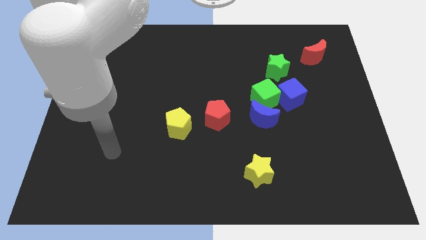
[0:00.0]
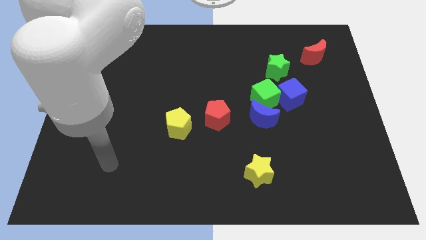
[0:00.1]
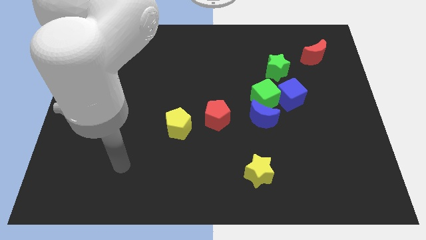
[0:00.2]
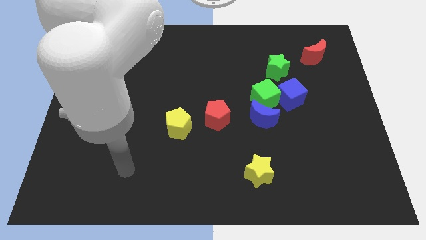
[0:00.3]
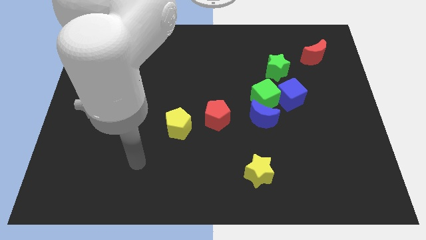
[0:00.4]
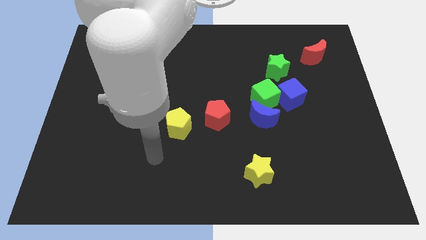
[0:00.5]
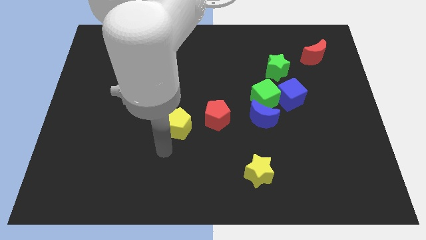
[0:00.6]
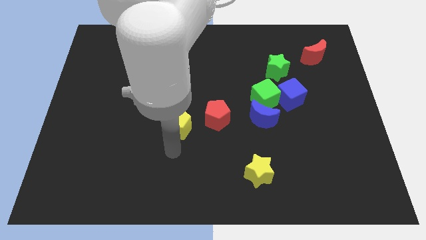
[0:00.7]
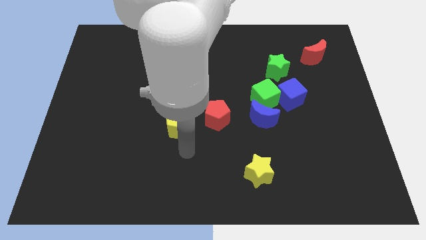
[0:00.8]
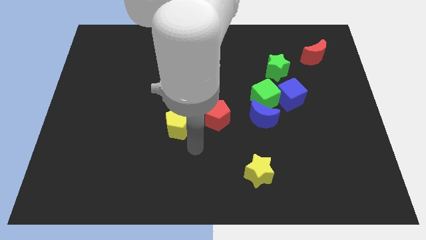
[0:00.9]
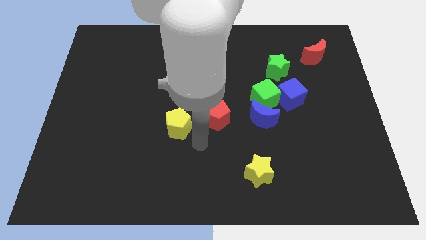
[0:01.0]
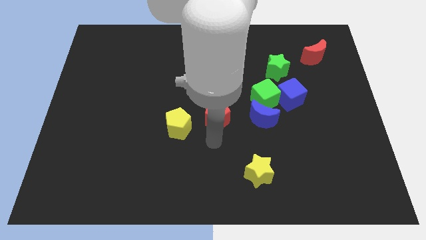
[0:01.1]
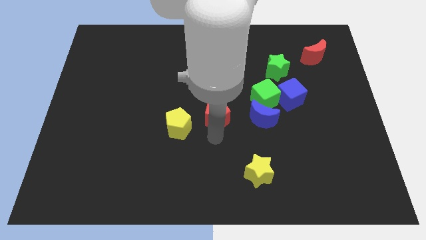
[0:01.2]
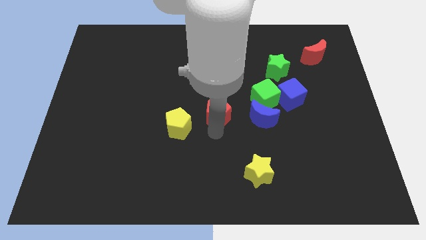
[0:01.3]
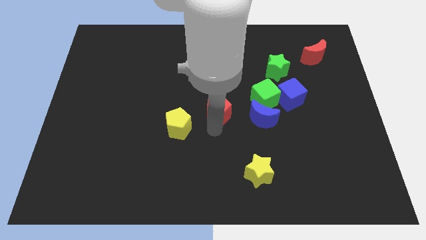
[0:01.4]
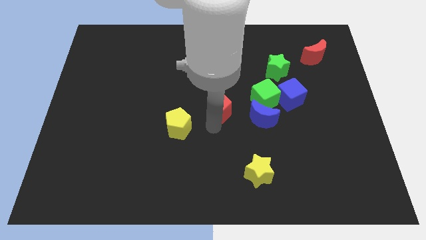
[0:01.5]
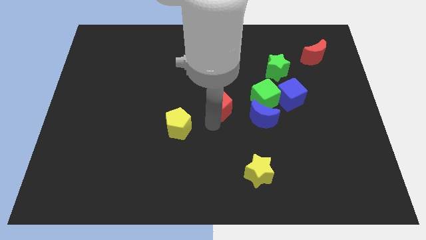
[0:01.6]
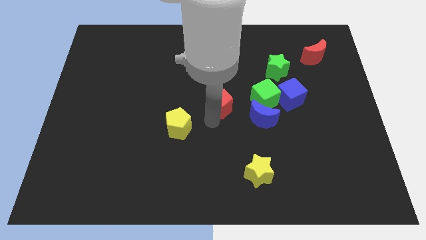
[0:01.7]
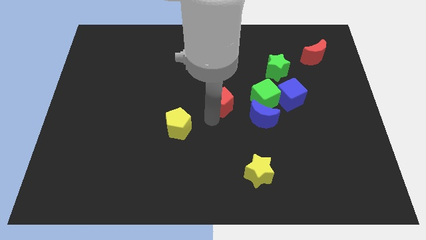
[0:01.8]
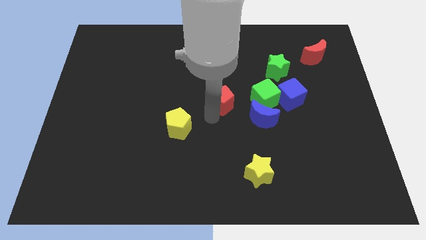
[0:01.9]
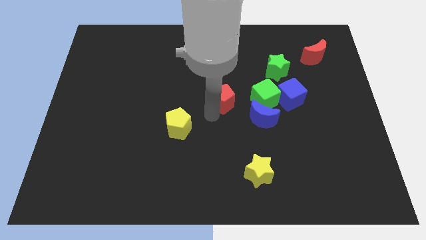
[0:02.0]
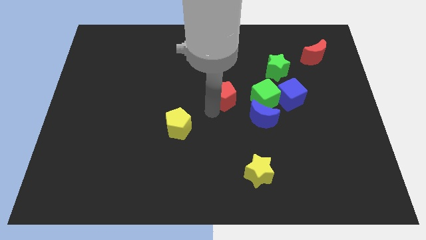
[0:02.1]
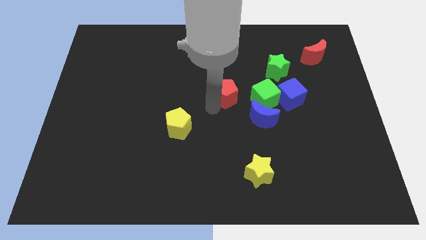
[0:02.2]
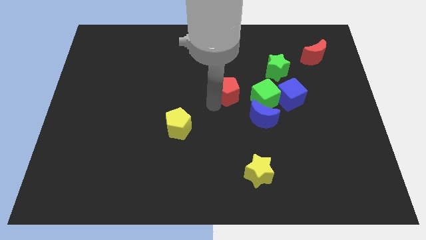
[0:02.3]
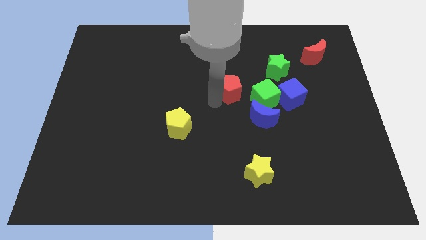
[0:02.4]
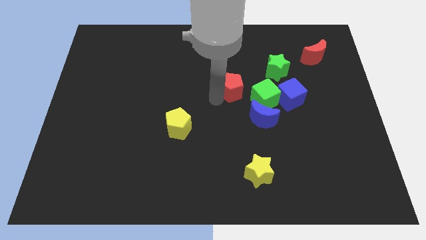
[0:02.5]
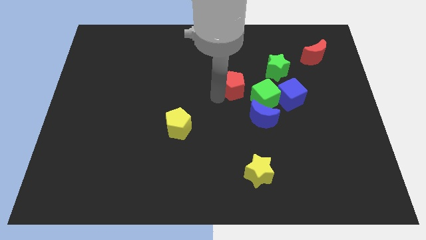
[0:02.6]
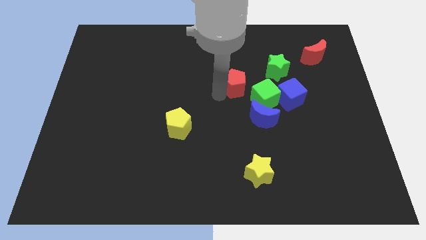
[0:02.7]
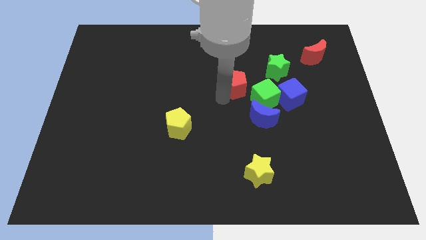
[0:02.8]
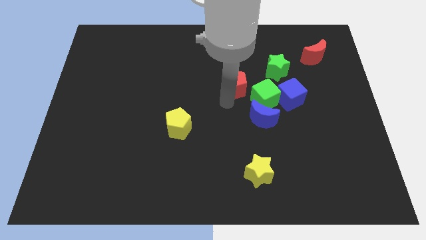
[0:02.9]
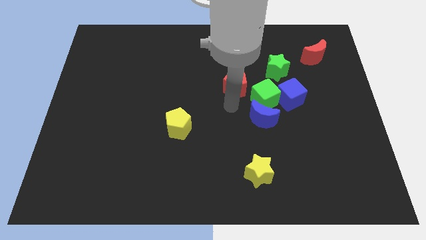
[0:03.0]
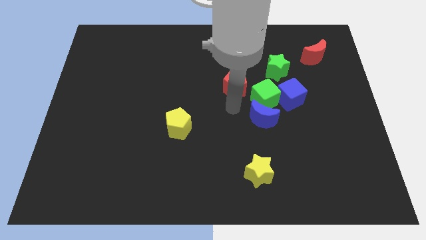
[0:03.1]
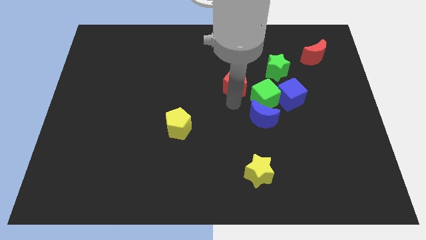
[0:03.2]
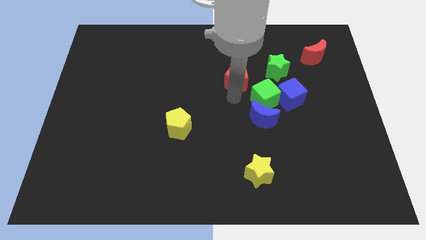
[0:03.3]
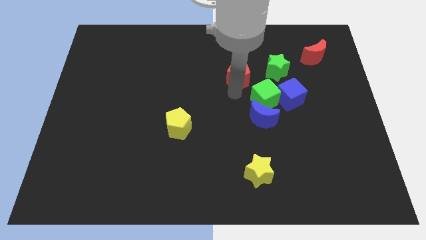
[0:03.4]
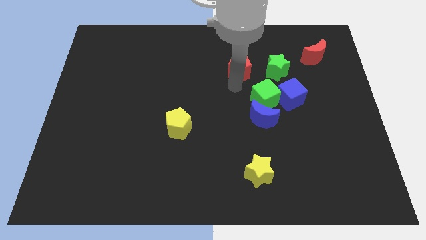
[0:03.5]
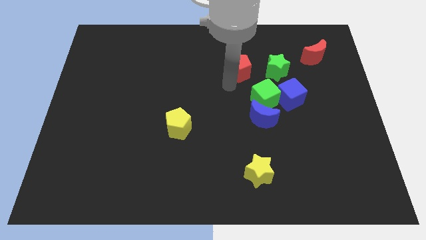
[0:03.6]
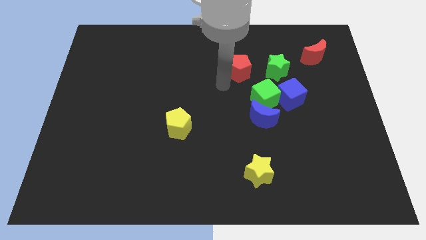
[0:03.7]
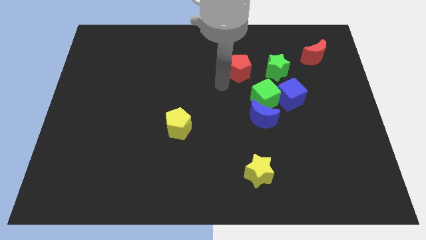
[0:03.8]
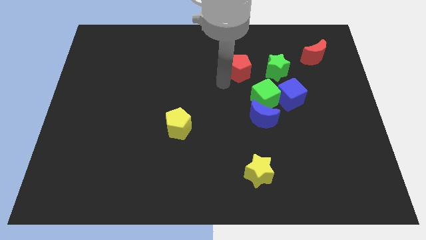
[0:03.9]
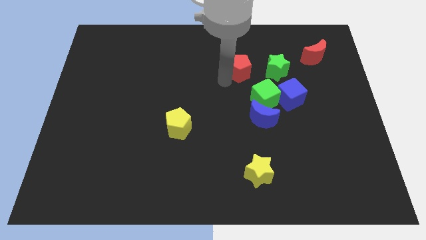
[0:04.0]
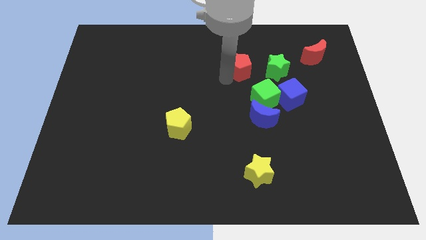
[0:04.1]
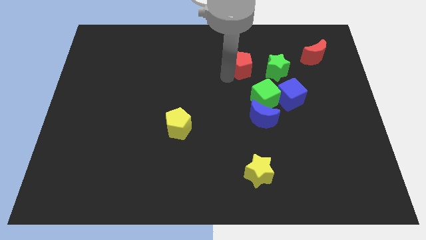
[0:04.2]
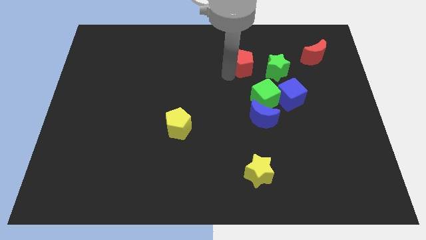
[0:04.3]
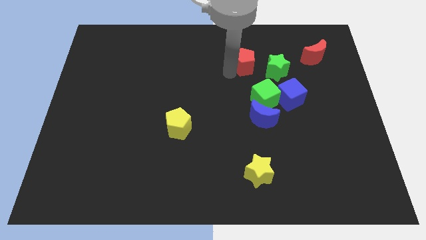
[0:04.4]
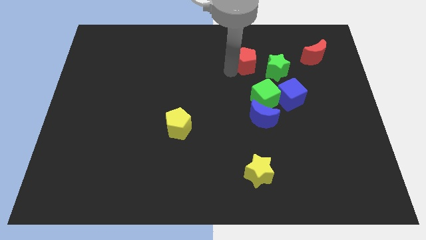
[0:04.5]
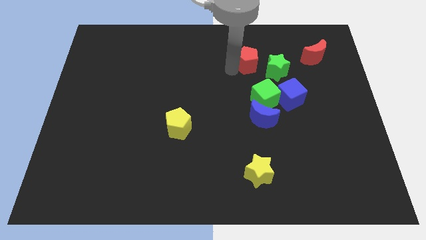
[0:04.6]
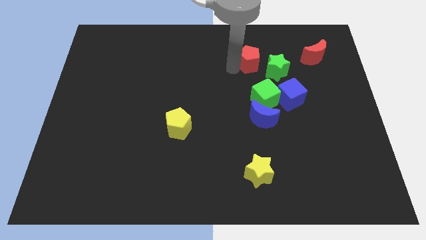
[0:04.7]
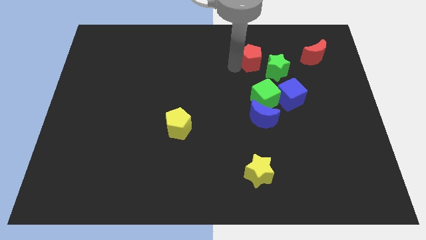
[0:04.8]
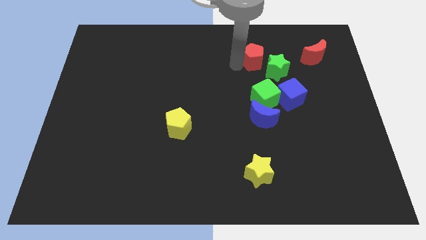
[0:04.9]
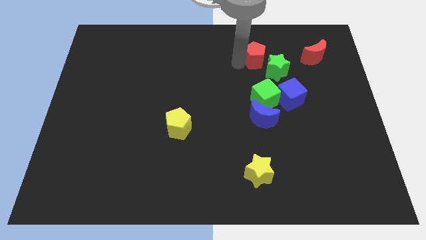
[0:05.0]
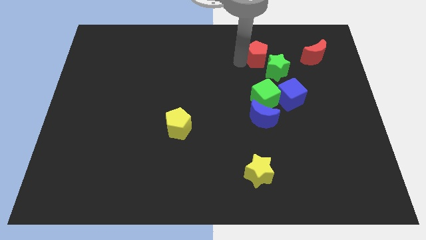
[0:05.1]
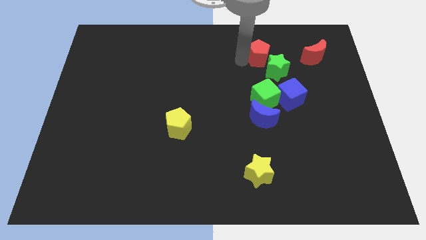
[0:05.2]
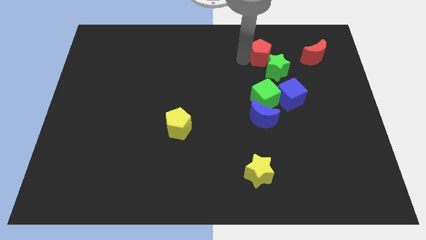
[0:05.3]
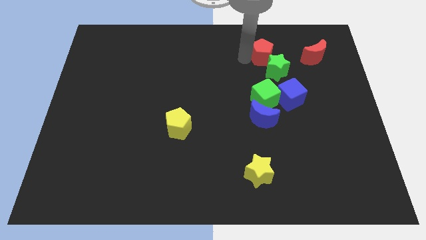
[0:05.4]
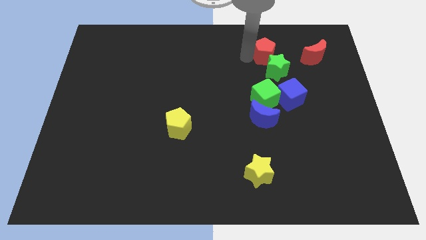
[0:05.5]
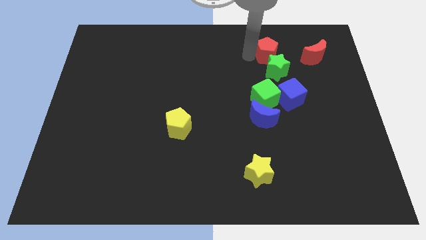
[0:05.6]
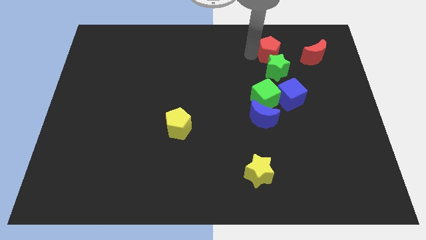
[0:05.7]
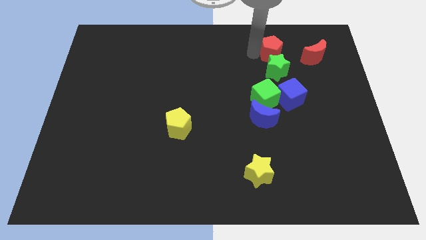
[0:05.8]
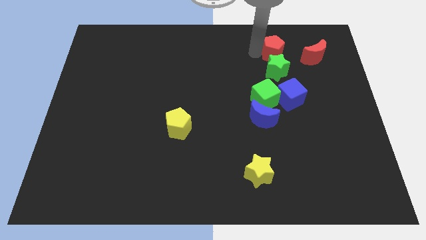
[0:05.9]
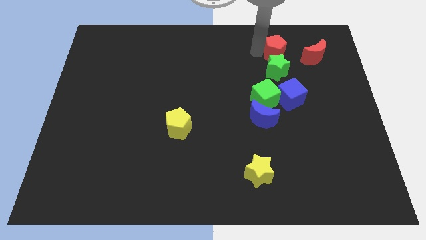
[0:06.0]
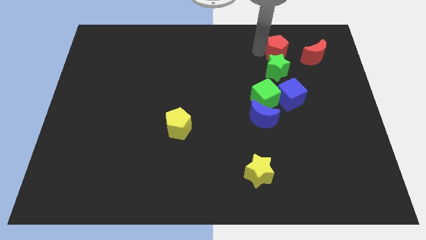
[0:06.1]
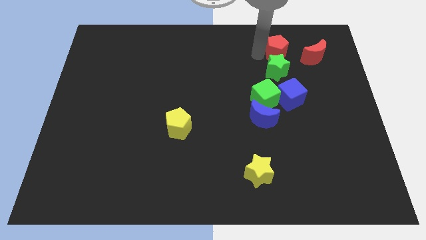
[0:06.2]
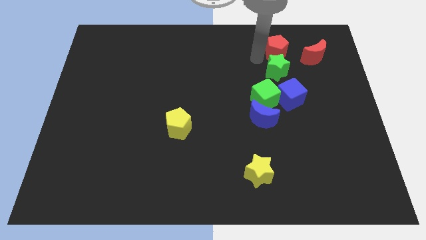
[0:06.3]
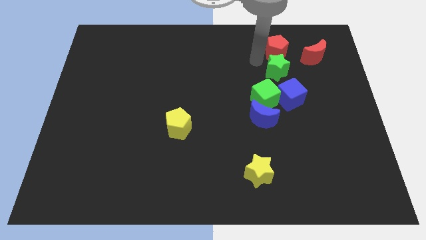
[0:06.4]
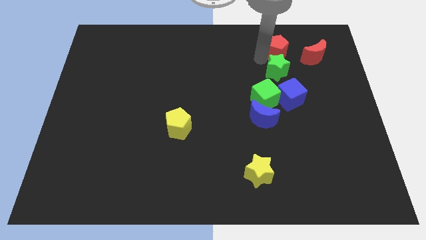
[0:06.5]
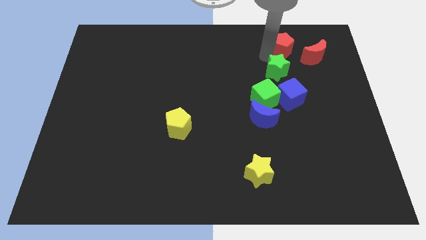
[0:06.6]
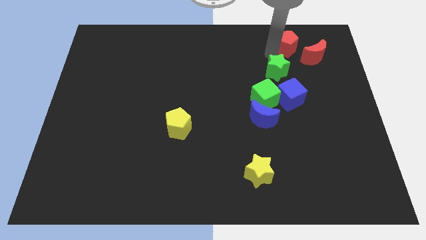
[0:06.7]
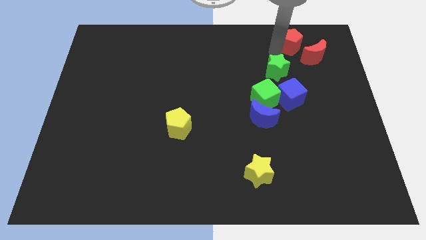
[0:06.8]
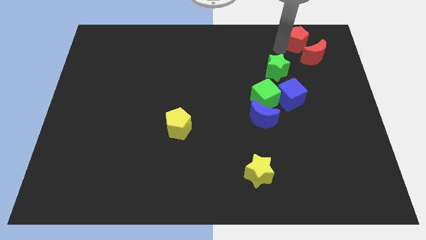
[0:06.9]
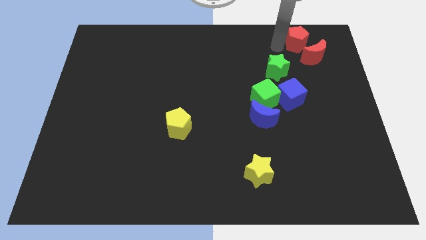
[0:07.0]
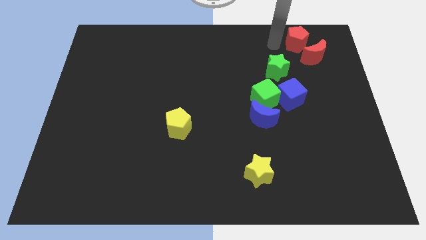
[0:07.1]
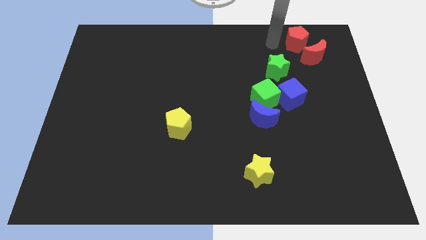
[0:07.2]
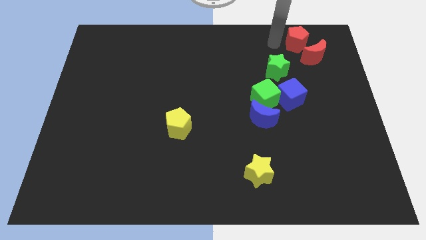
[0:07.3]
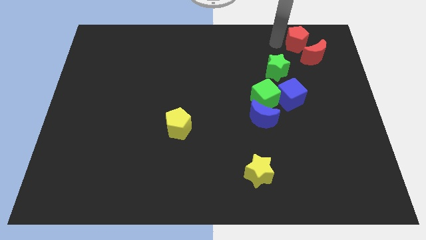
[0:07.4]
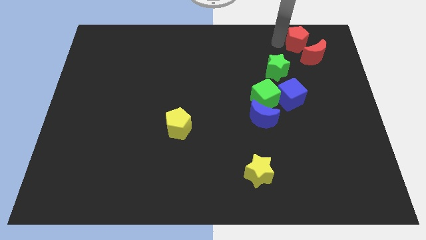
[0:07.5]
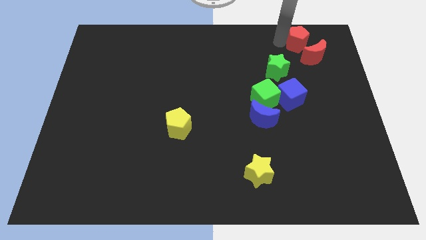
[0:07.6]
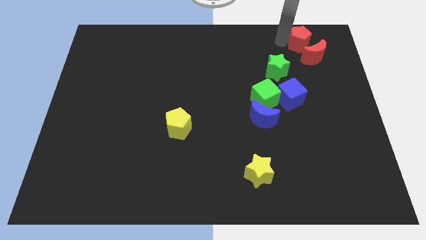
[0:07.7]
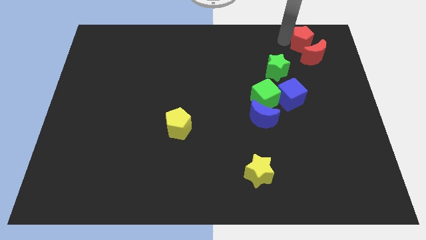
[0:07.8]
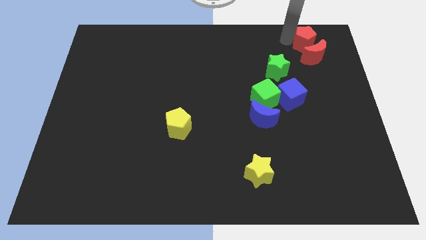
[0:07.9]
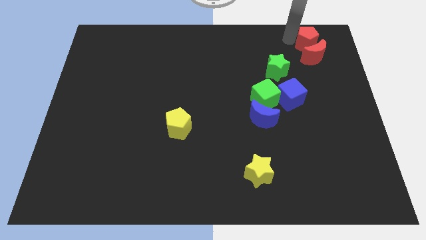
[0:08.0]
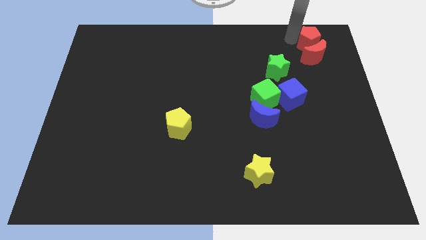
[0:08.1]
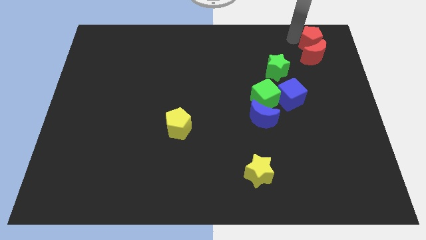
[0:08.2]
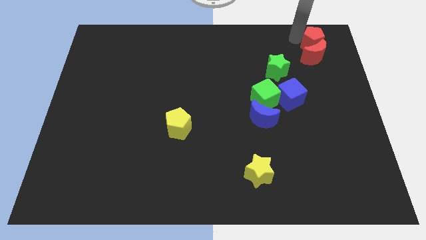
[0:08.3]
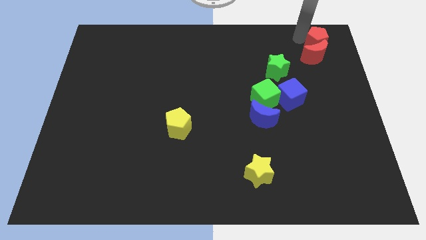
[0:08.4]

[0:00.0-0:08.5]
push the red pentagon to the top right corner
